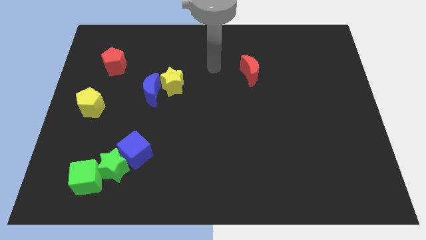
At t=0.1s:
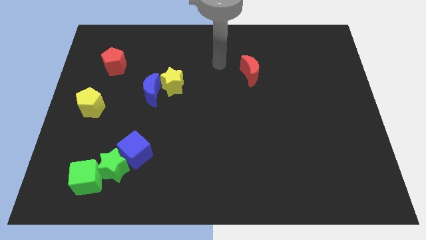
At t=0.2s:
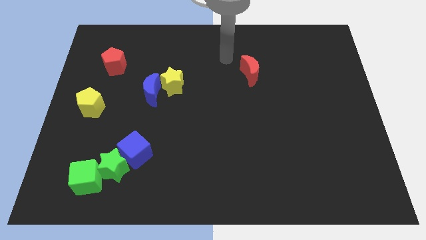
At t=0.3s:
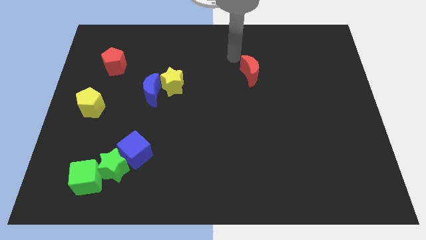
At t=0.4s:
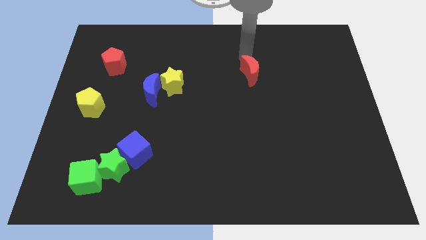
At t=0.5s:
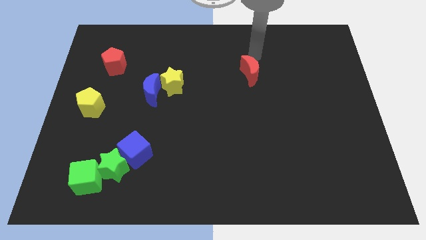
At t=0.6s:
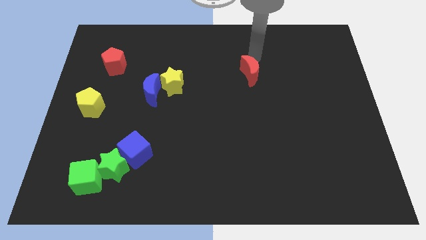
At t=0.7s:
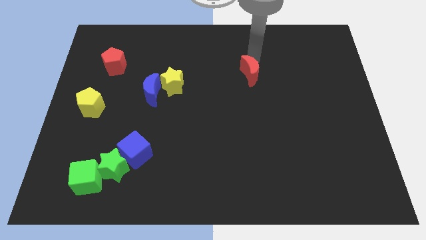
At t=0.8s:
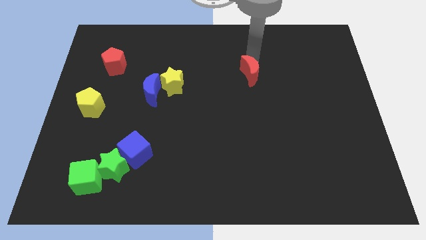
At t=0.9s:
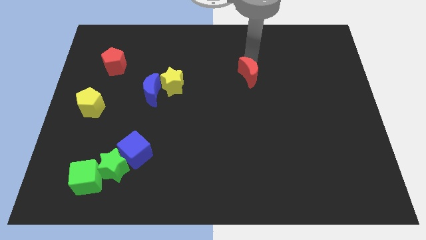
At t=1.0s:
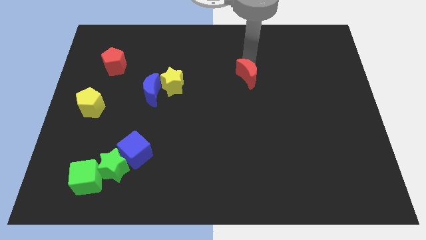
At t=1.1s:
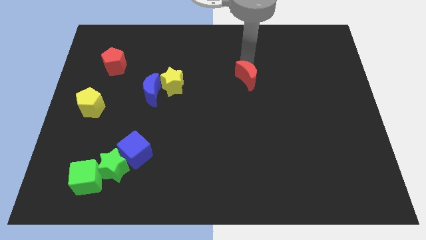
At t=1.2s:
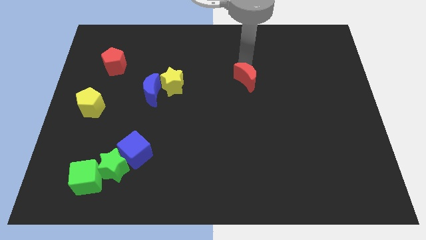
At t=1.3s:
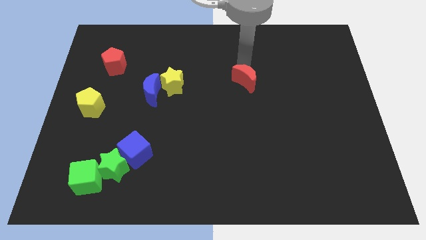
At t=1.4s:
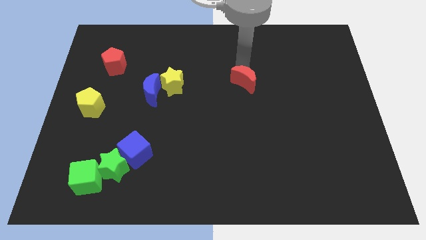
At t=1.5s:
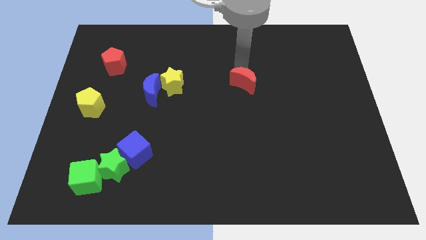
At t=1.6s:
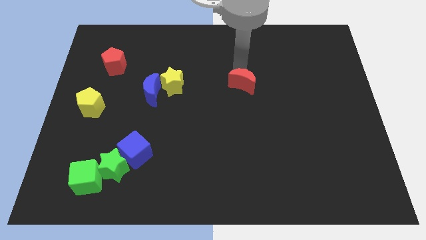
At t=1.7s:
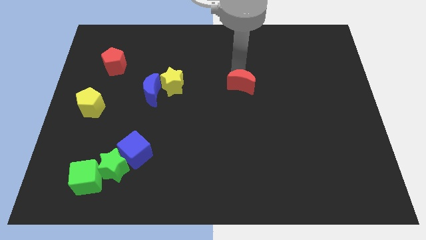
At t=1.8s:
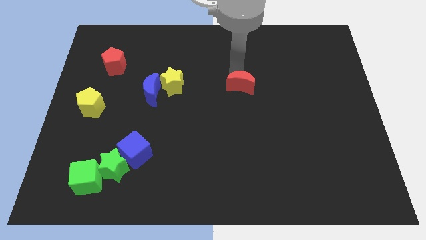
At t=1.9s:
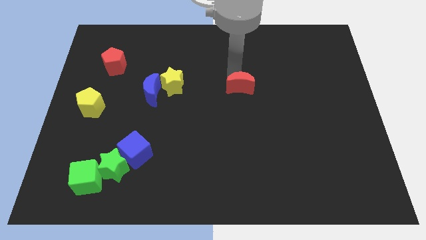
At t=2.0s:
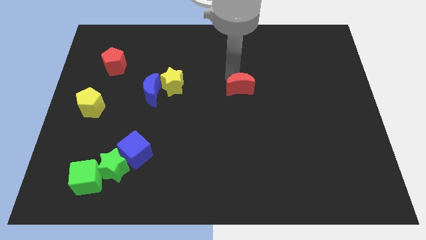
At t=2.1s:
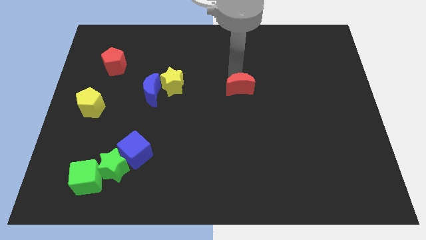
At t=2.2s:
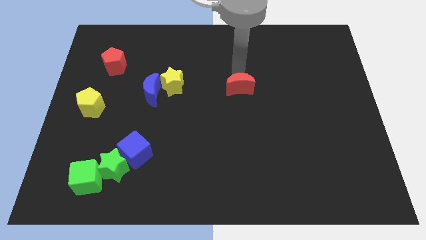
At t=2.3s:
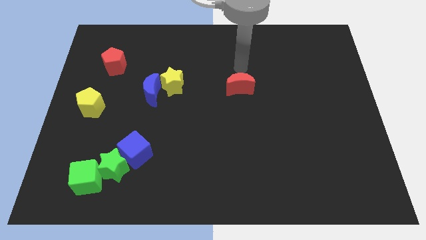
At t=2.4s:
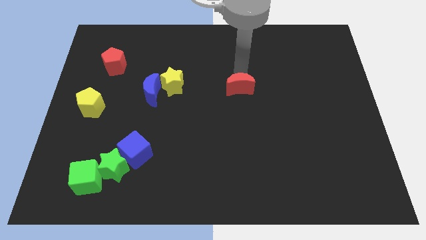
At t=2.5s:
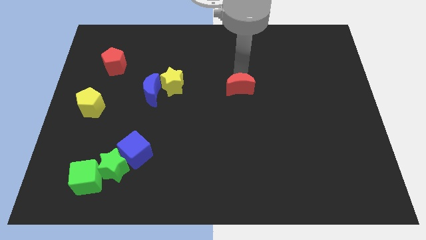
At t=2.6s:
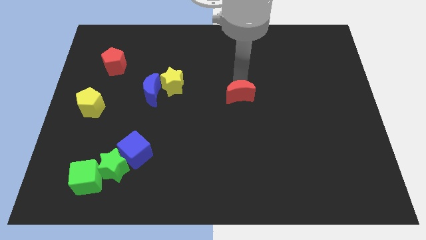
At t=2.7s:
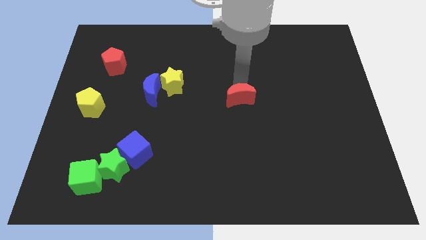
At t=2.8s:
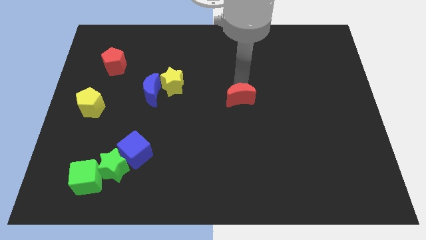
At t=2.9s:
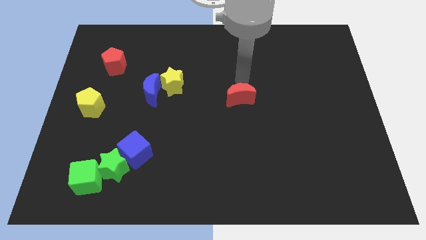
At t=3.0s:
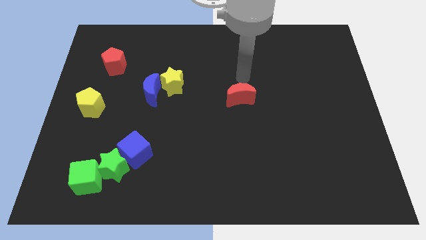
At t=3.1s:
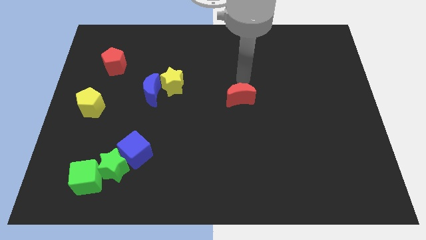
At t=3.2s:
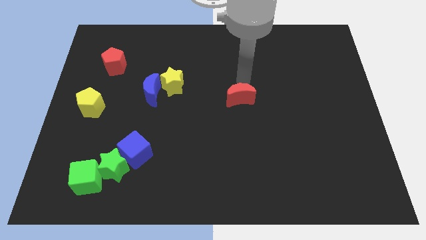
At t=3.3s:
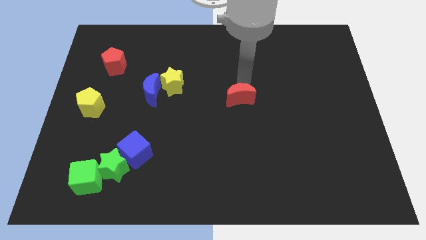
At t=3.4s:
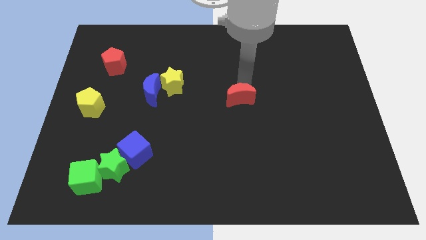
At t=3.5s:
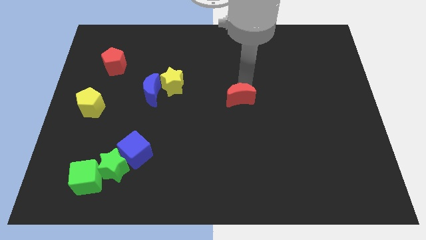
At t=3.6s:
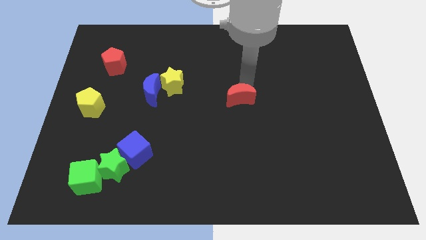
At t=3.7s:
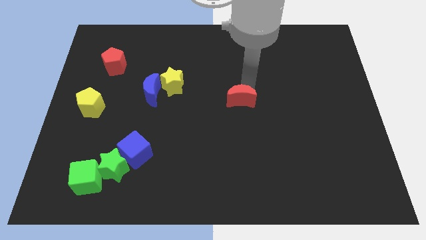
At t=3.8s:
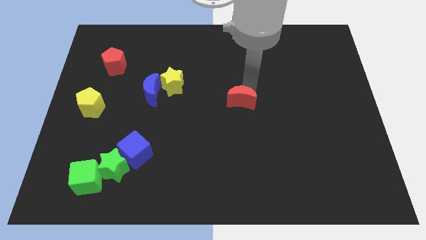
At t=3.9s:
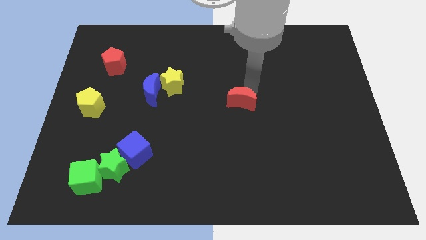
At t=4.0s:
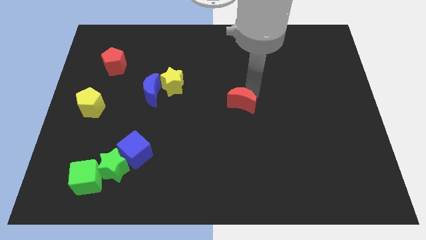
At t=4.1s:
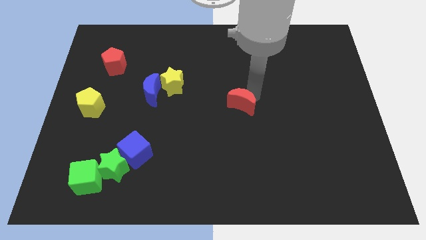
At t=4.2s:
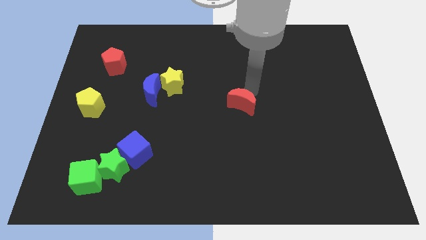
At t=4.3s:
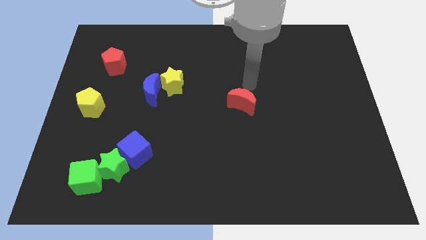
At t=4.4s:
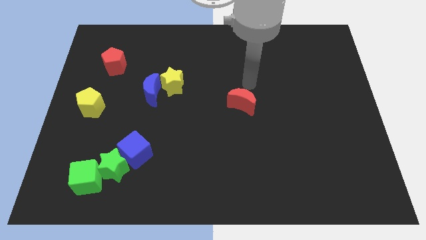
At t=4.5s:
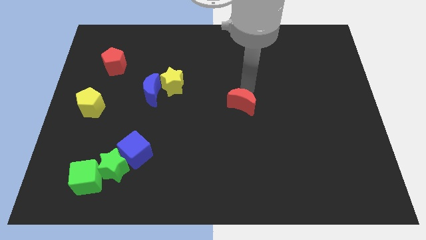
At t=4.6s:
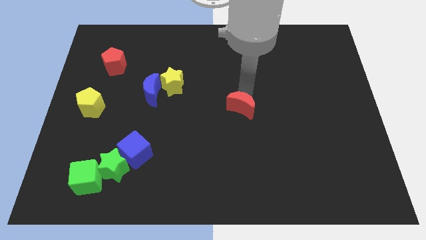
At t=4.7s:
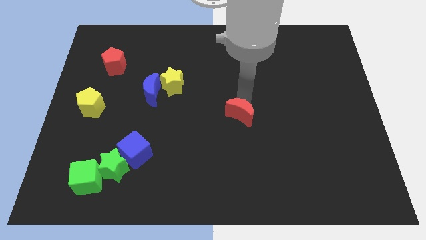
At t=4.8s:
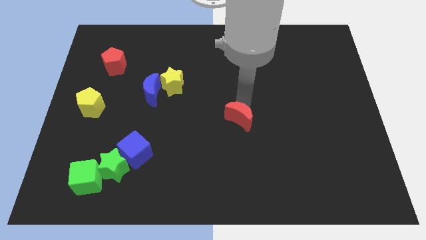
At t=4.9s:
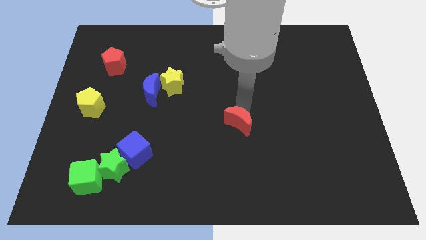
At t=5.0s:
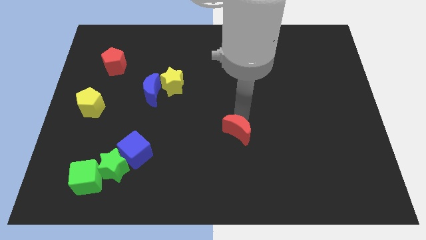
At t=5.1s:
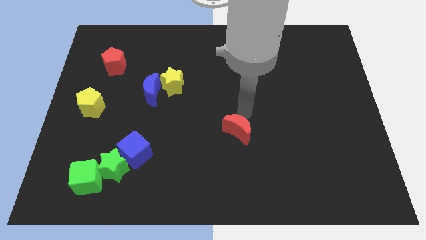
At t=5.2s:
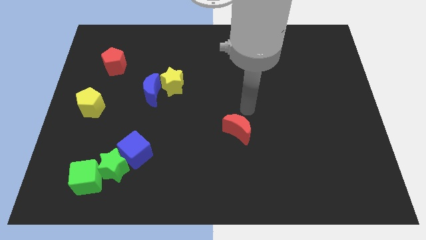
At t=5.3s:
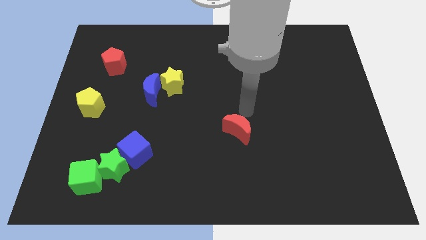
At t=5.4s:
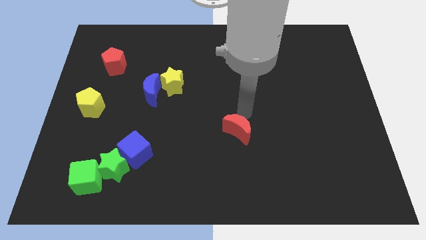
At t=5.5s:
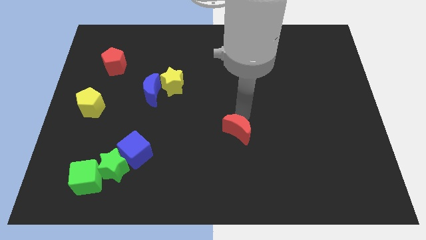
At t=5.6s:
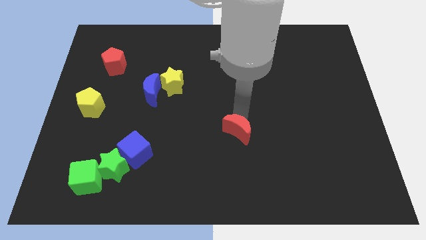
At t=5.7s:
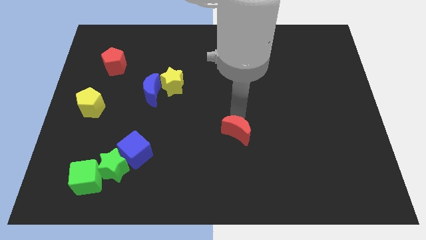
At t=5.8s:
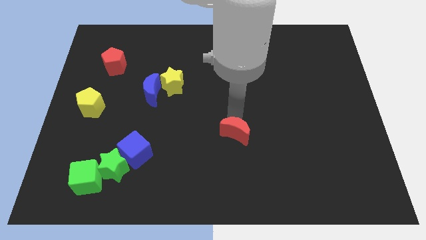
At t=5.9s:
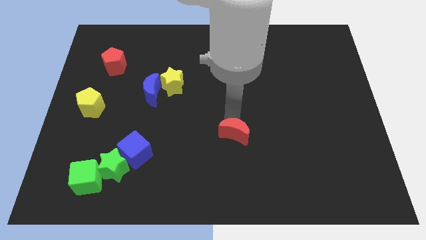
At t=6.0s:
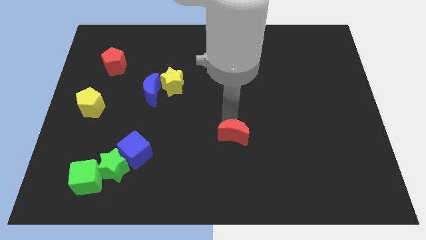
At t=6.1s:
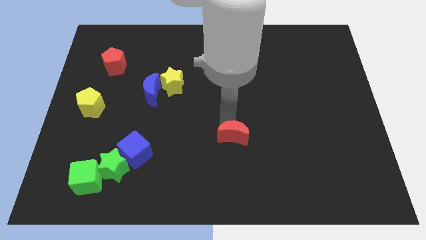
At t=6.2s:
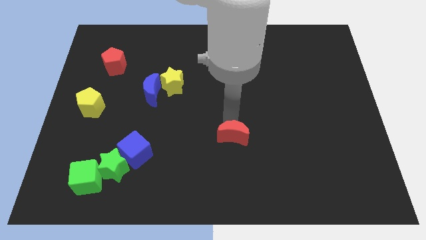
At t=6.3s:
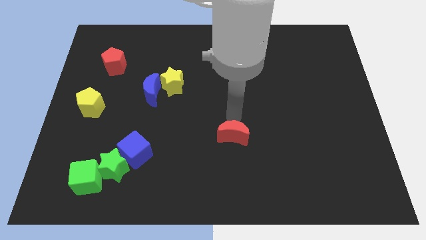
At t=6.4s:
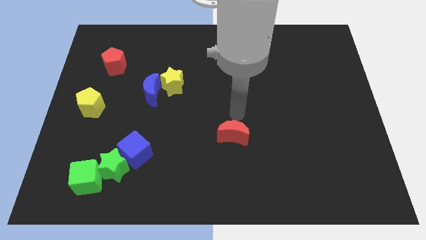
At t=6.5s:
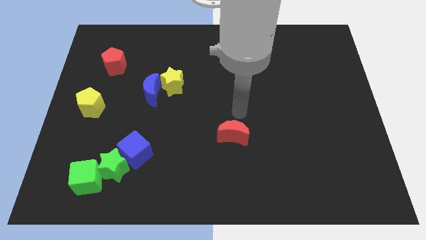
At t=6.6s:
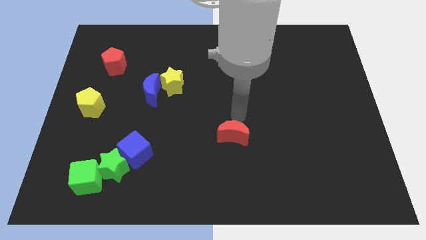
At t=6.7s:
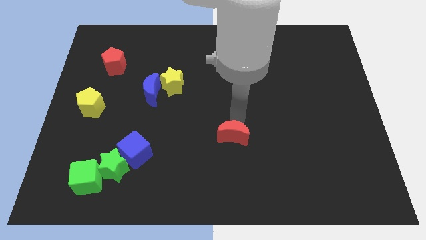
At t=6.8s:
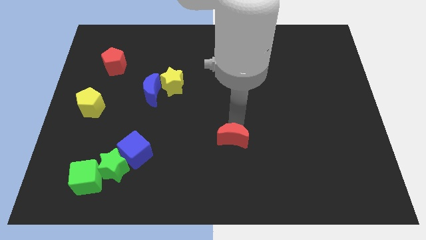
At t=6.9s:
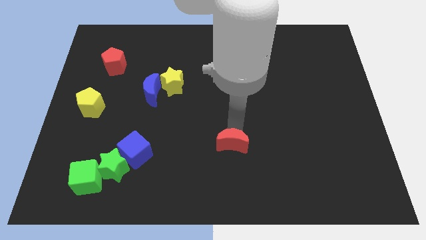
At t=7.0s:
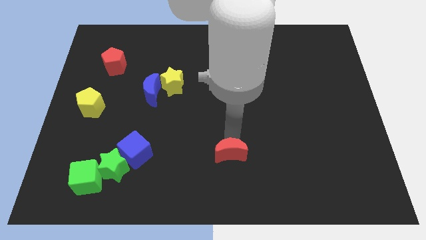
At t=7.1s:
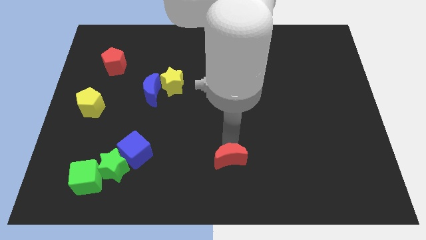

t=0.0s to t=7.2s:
move the red moon to the bottom side
